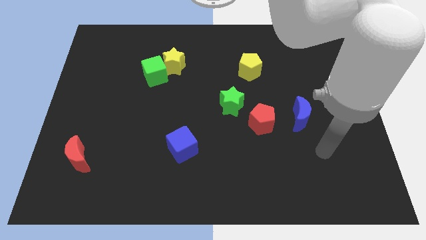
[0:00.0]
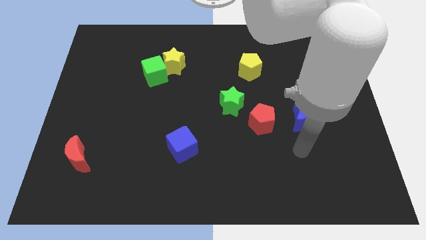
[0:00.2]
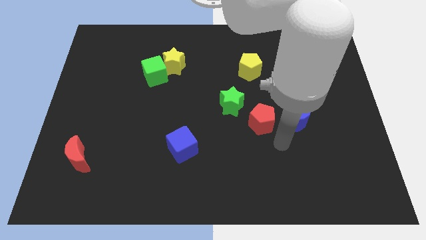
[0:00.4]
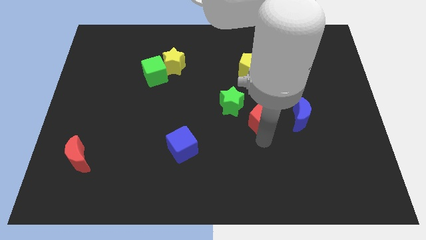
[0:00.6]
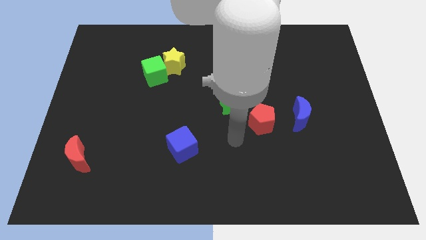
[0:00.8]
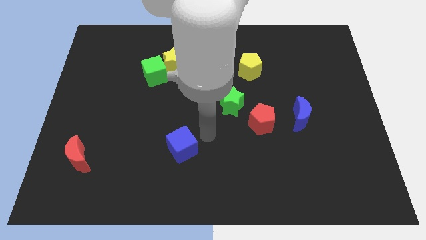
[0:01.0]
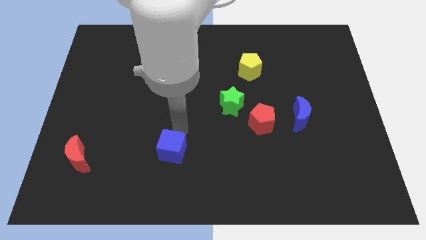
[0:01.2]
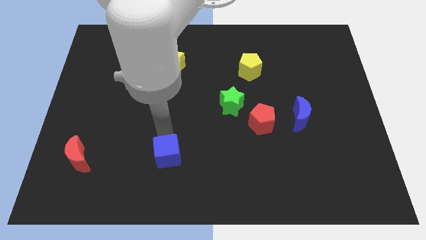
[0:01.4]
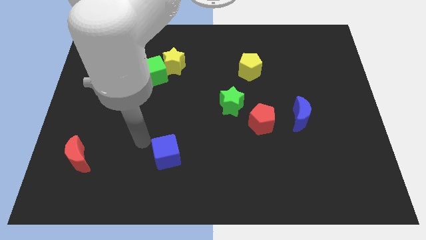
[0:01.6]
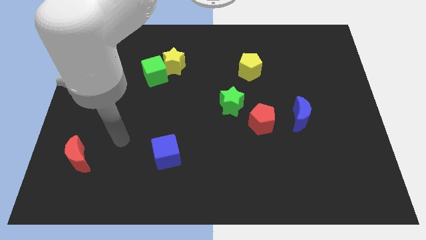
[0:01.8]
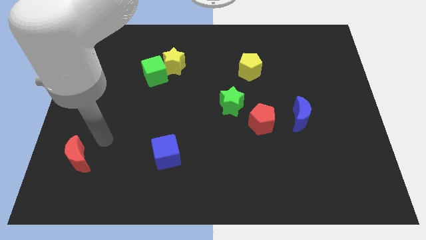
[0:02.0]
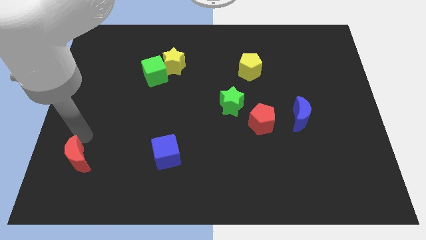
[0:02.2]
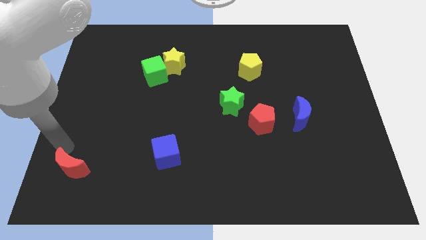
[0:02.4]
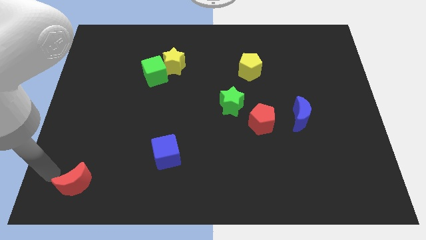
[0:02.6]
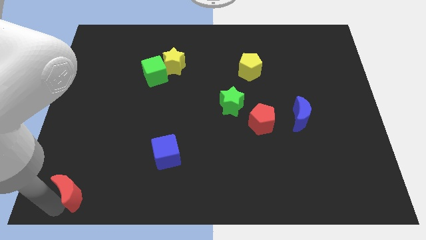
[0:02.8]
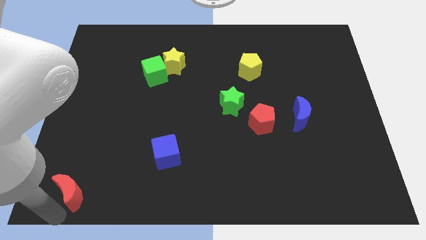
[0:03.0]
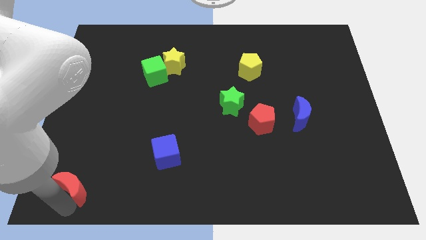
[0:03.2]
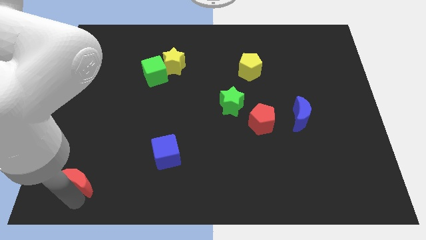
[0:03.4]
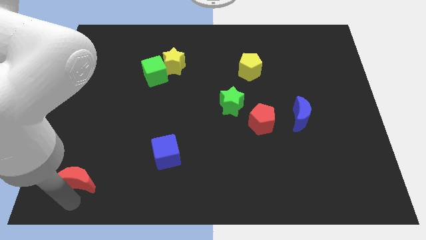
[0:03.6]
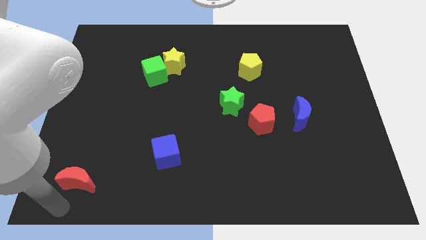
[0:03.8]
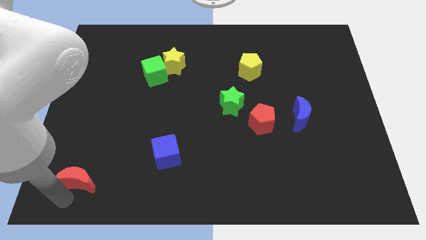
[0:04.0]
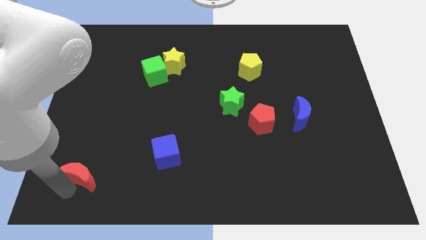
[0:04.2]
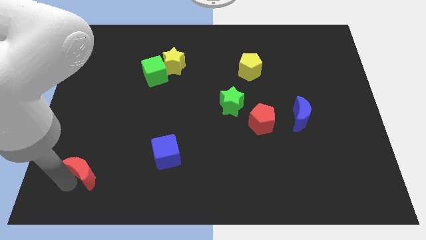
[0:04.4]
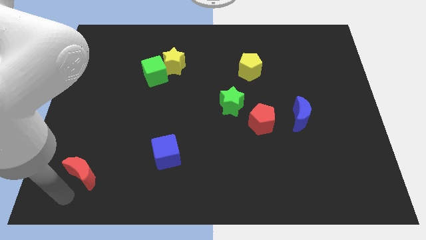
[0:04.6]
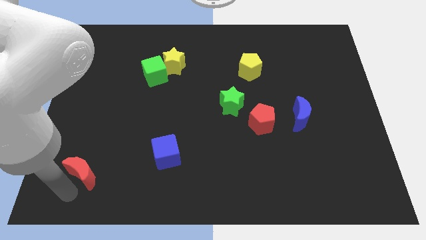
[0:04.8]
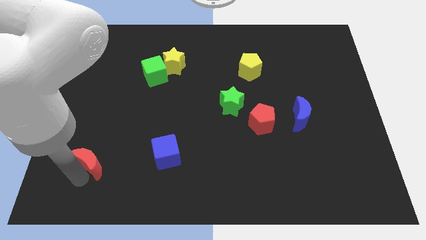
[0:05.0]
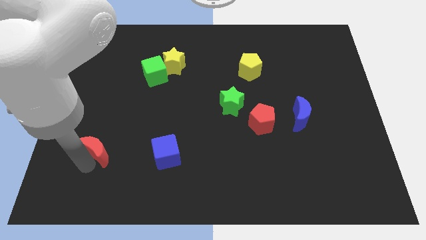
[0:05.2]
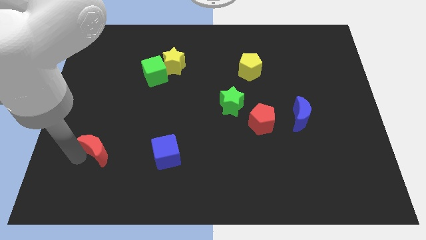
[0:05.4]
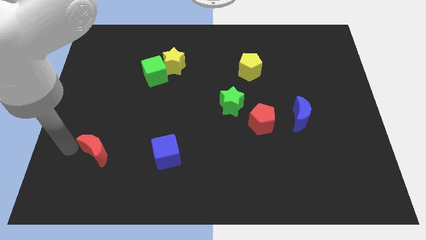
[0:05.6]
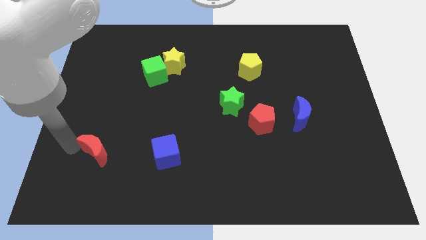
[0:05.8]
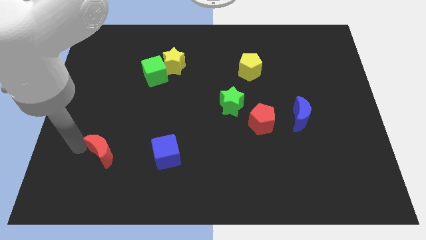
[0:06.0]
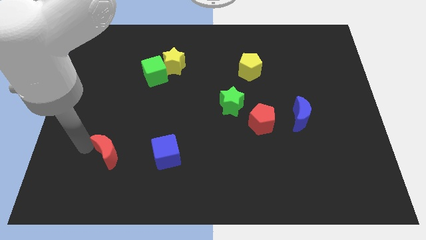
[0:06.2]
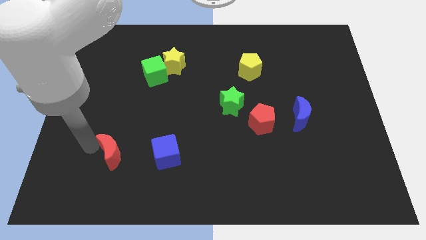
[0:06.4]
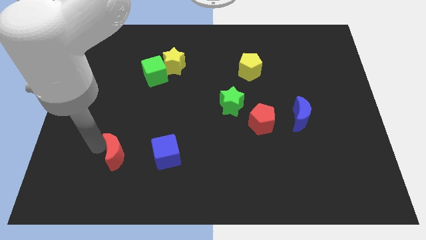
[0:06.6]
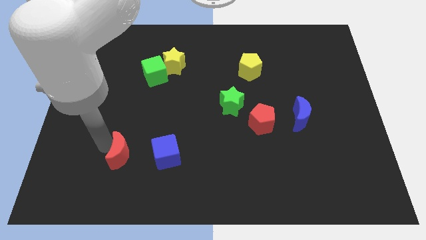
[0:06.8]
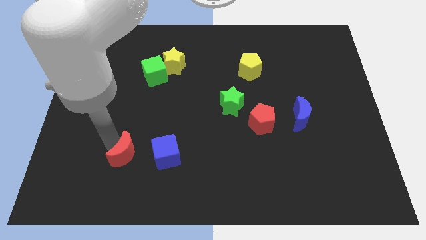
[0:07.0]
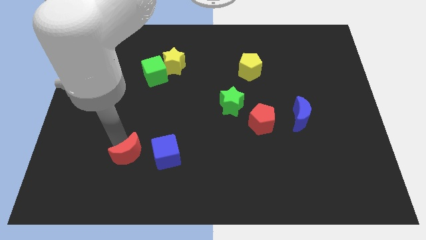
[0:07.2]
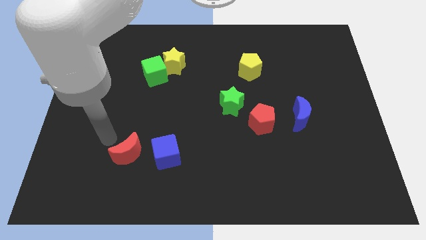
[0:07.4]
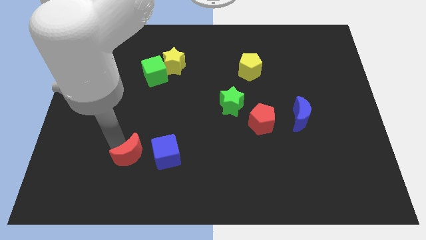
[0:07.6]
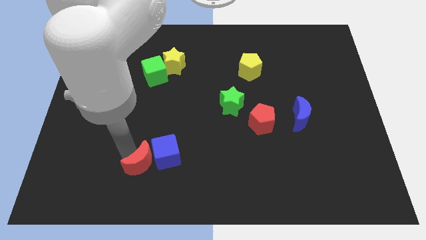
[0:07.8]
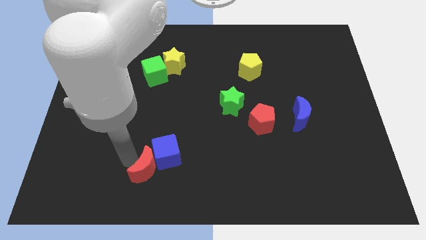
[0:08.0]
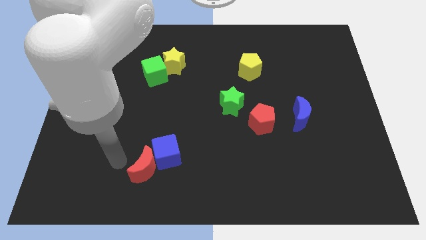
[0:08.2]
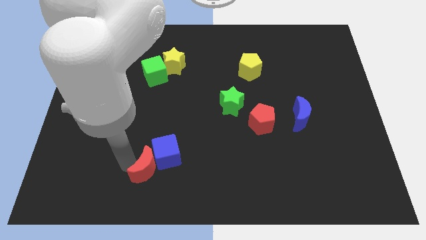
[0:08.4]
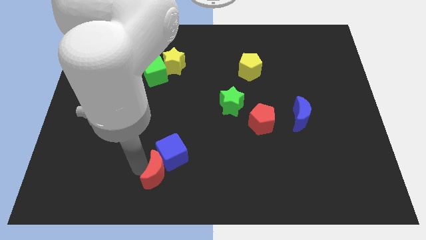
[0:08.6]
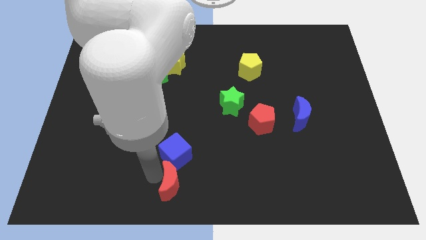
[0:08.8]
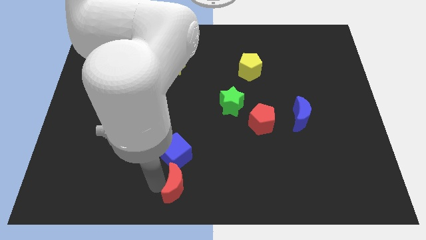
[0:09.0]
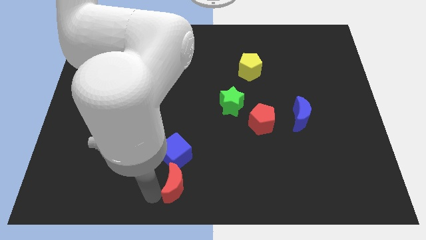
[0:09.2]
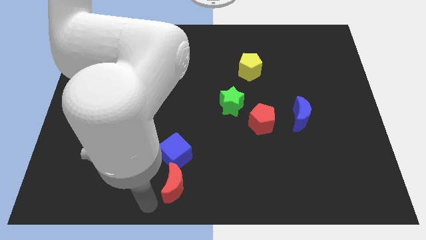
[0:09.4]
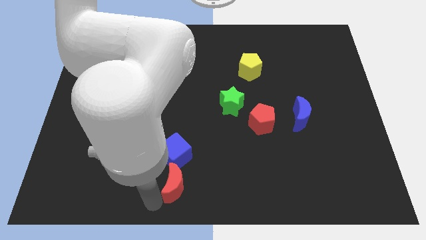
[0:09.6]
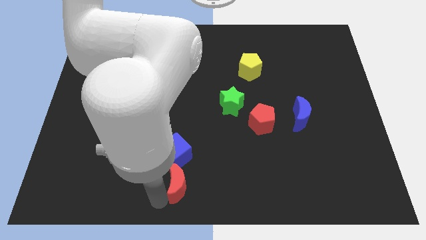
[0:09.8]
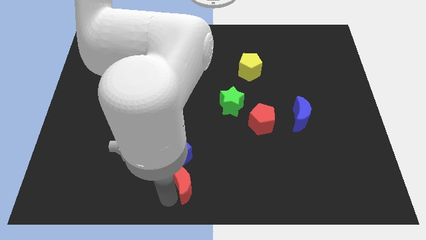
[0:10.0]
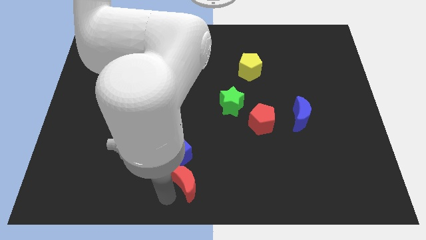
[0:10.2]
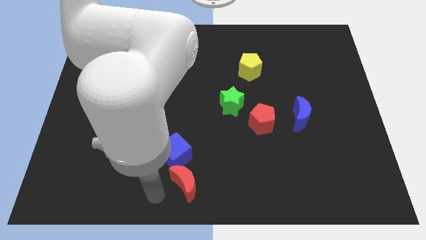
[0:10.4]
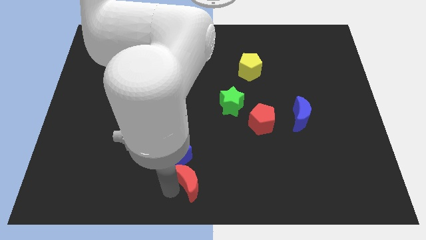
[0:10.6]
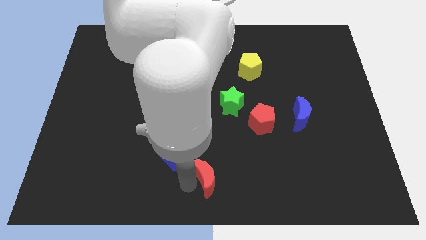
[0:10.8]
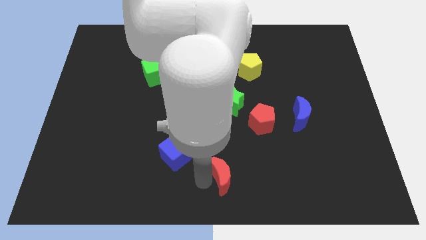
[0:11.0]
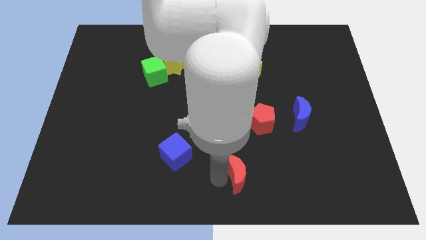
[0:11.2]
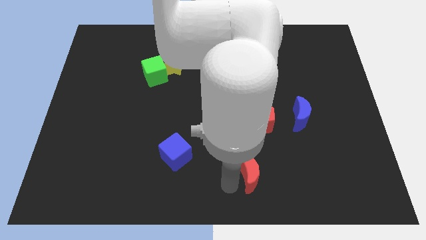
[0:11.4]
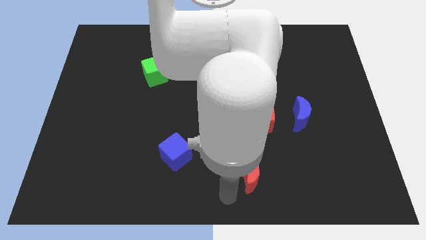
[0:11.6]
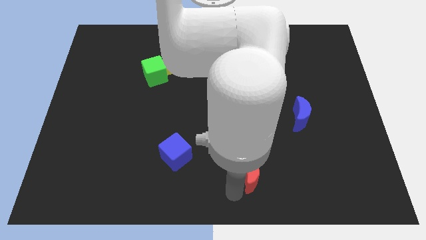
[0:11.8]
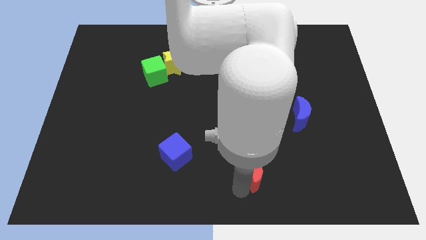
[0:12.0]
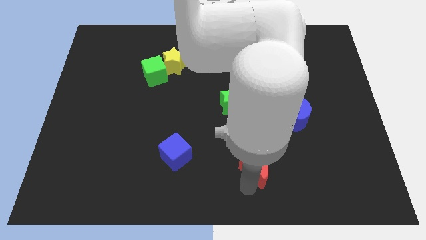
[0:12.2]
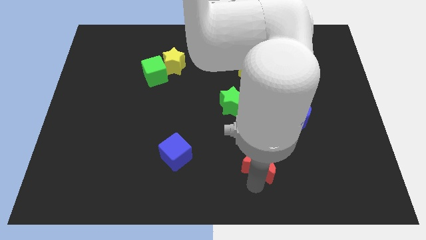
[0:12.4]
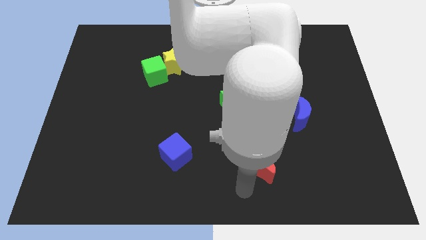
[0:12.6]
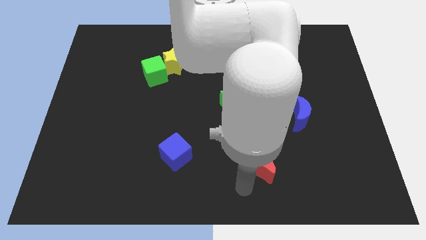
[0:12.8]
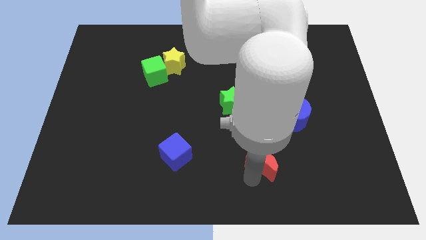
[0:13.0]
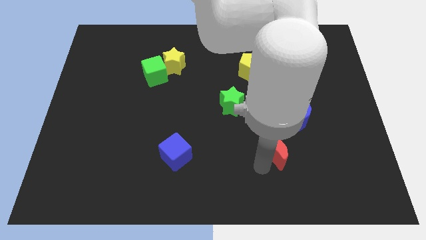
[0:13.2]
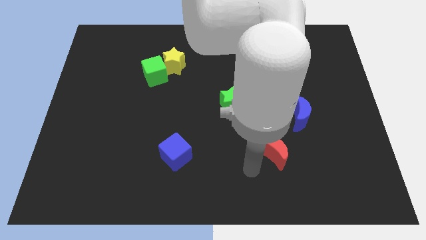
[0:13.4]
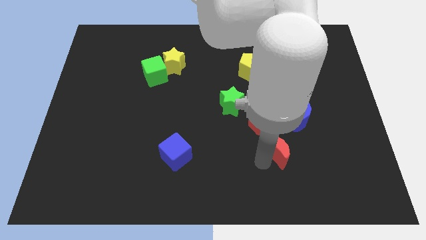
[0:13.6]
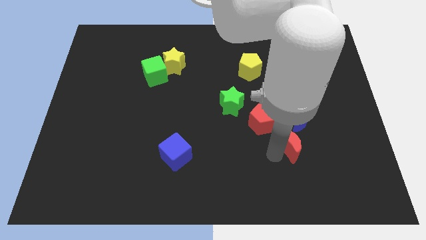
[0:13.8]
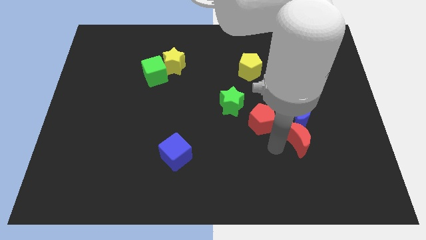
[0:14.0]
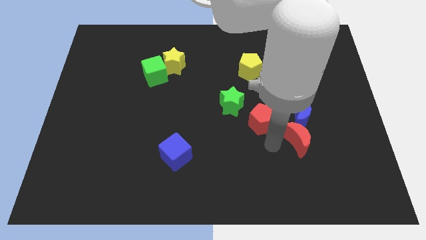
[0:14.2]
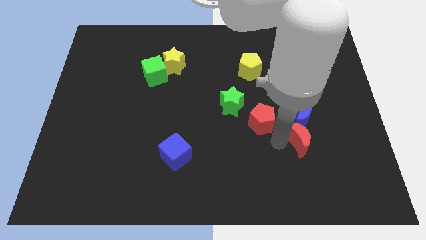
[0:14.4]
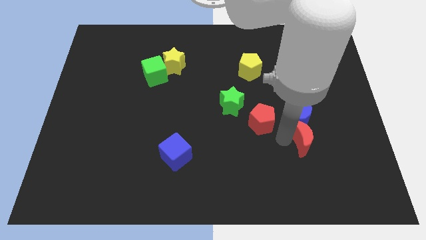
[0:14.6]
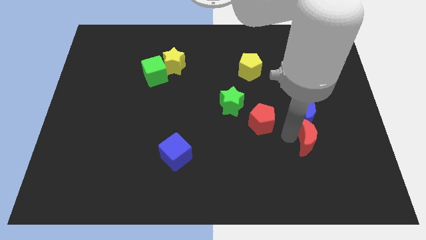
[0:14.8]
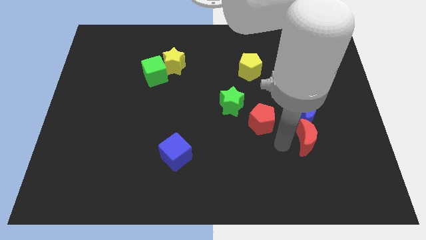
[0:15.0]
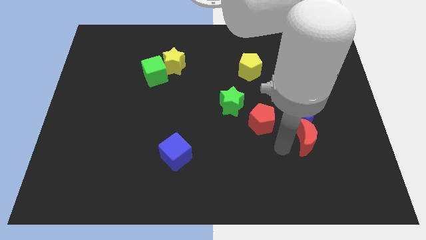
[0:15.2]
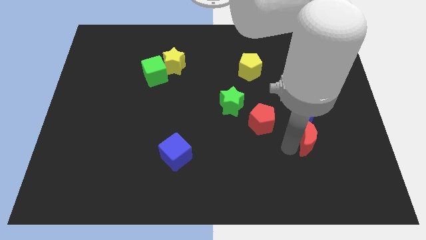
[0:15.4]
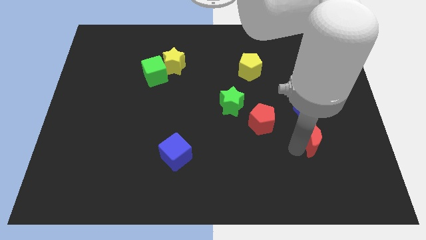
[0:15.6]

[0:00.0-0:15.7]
put the red moon to the bottom right side of the blue moon
